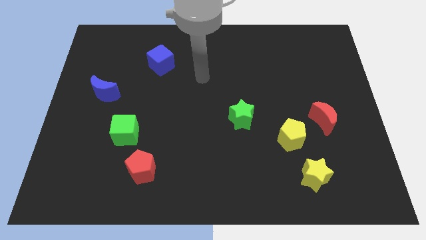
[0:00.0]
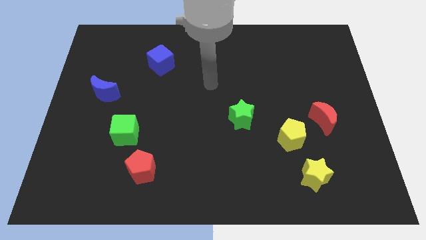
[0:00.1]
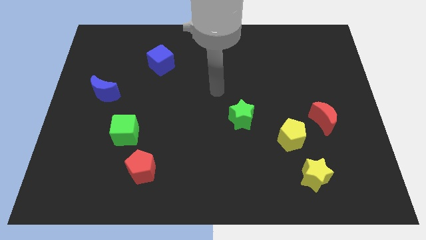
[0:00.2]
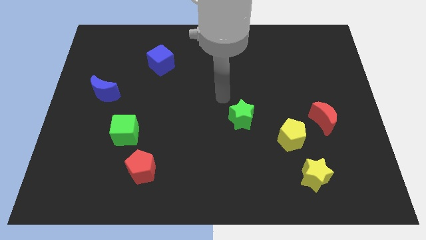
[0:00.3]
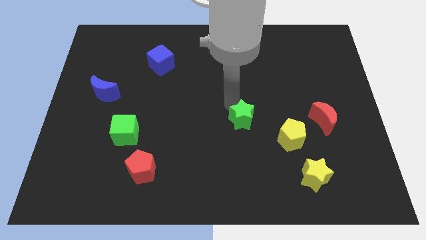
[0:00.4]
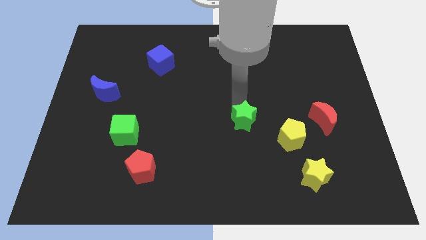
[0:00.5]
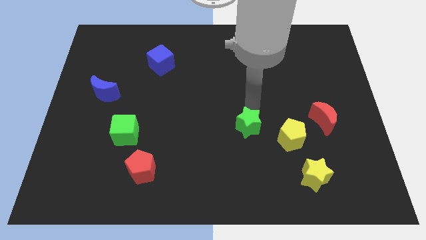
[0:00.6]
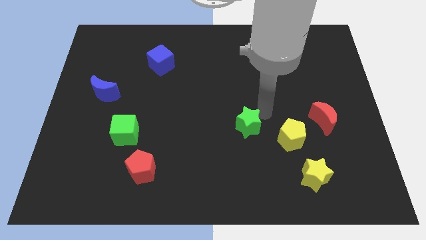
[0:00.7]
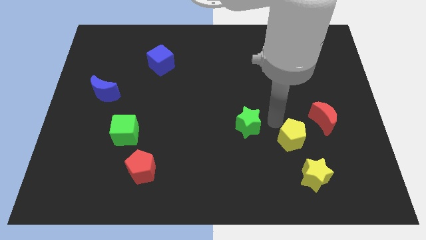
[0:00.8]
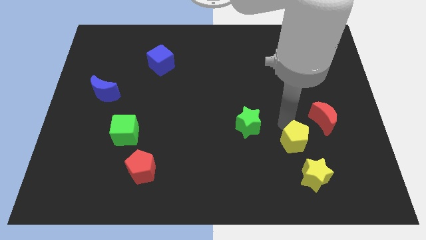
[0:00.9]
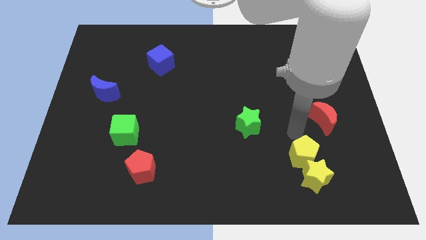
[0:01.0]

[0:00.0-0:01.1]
move the red moon away from the yellow pentagon

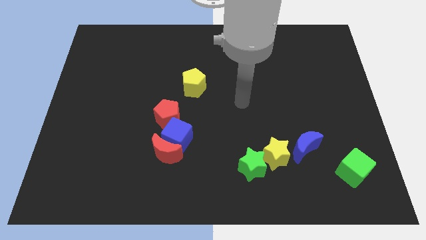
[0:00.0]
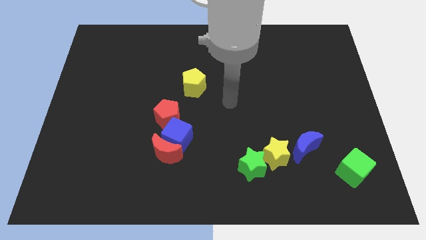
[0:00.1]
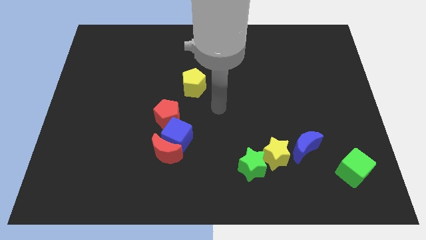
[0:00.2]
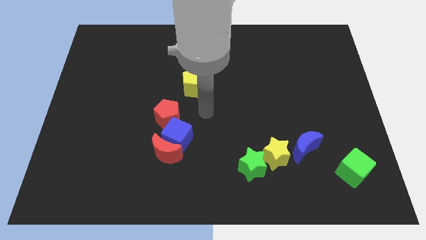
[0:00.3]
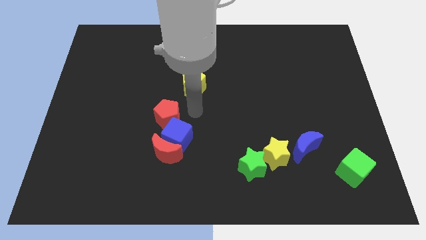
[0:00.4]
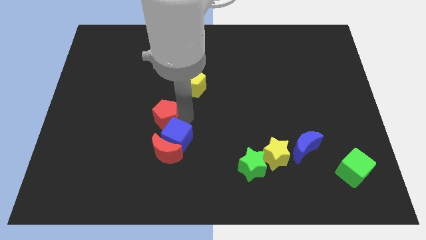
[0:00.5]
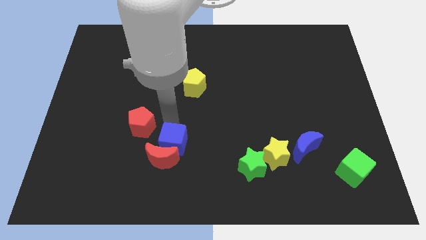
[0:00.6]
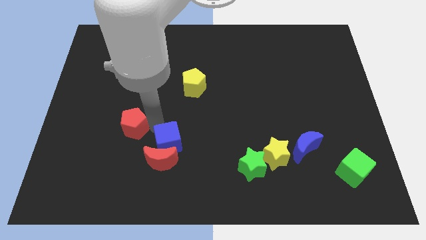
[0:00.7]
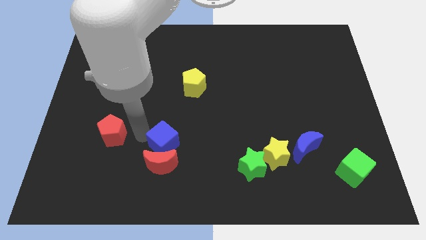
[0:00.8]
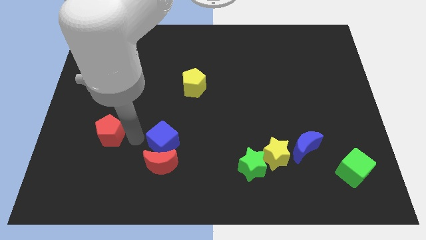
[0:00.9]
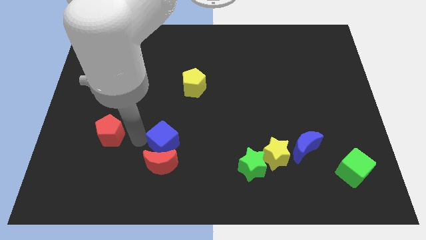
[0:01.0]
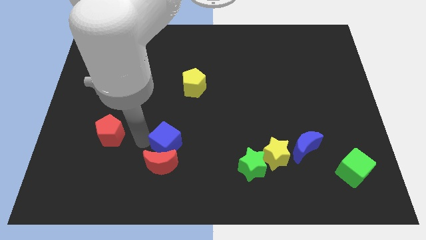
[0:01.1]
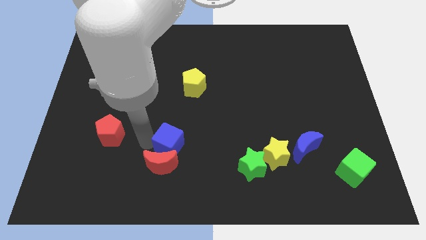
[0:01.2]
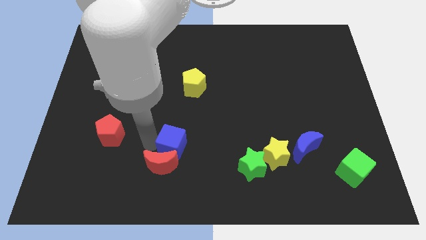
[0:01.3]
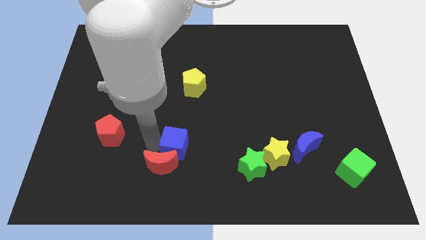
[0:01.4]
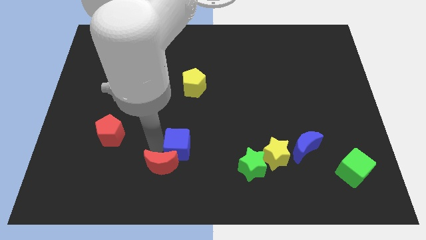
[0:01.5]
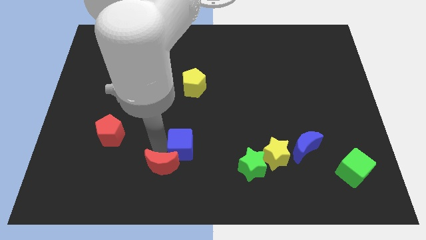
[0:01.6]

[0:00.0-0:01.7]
separate the blue cube from the red moon and red pentagon

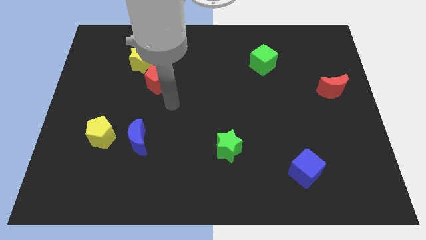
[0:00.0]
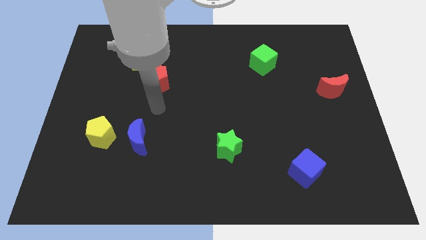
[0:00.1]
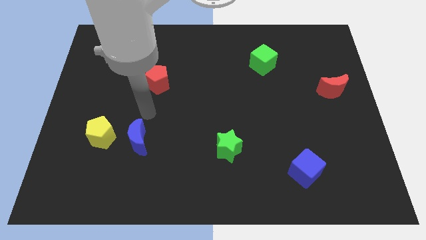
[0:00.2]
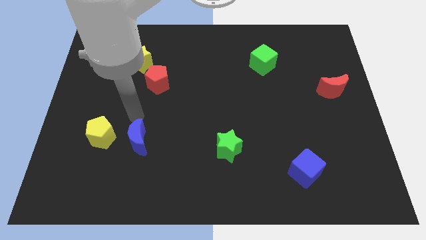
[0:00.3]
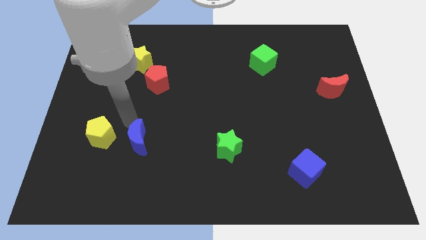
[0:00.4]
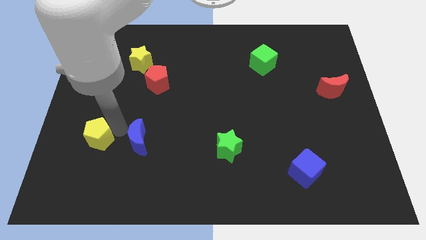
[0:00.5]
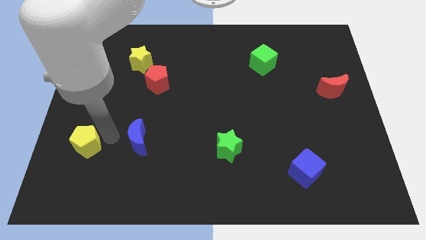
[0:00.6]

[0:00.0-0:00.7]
pull the blue moon apart from the yellow pentagon

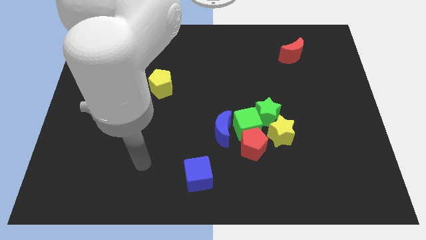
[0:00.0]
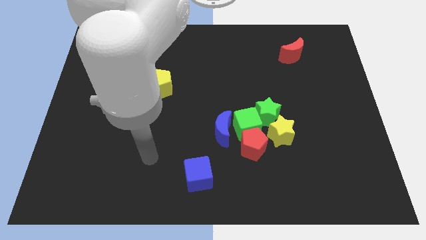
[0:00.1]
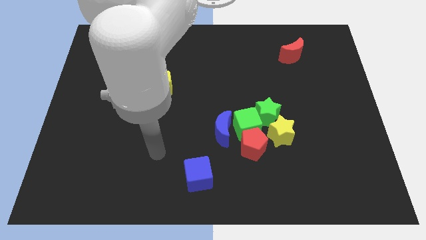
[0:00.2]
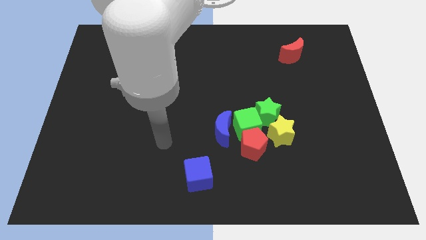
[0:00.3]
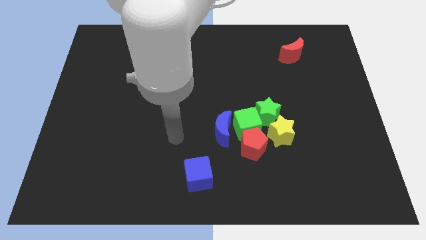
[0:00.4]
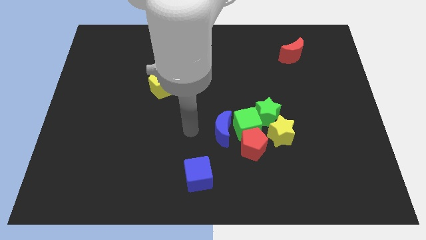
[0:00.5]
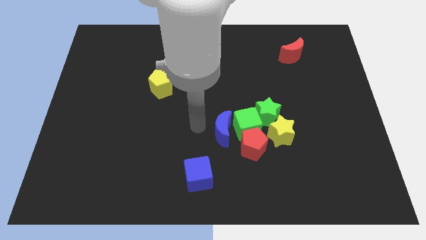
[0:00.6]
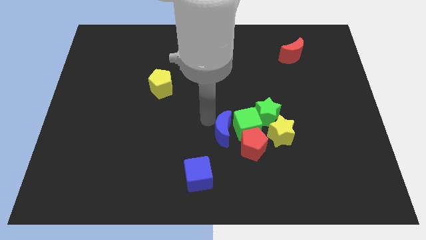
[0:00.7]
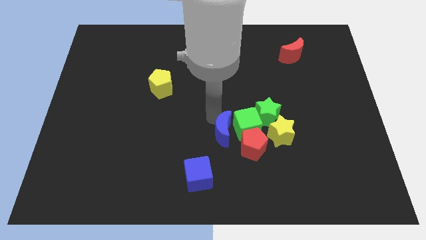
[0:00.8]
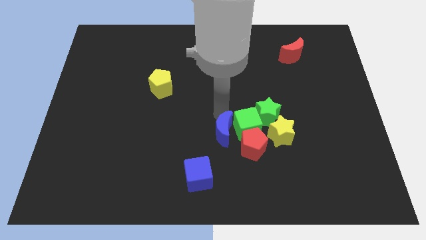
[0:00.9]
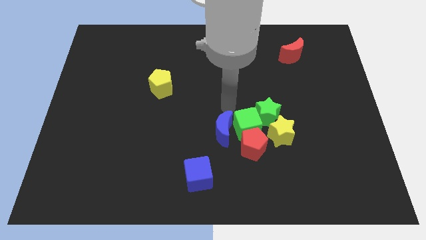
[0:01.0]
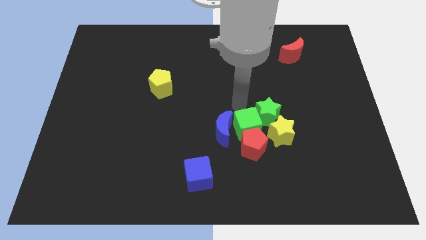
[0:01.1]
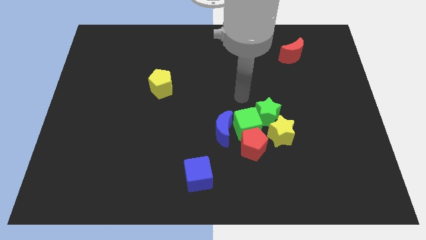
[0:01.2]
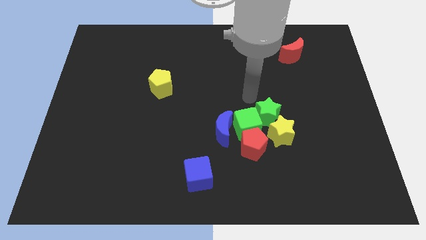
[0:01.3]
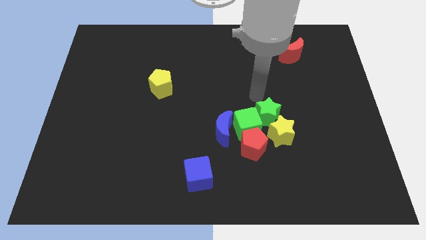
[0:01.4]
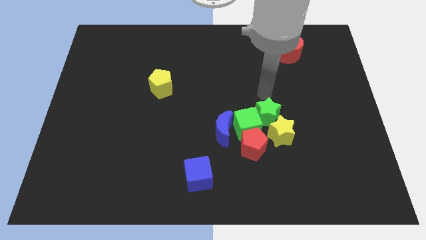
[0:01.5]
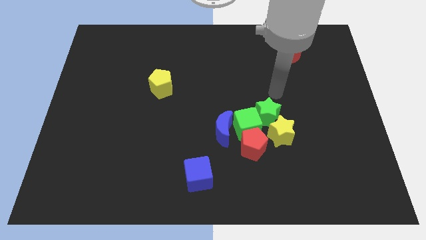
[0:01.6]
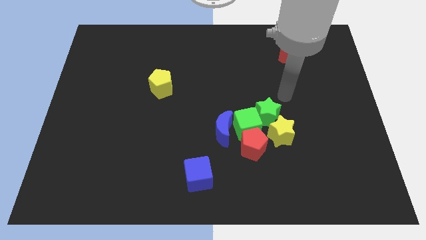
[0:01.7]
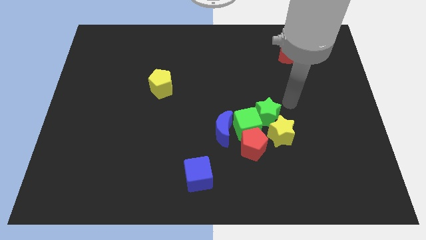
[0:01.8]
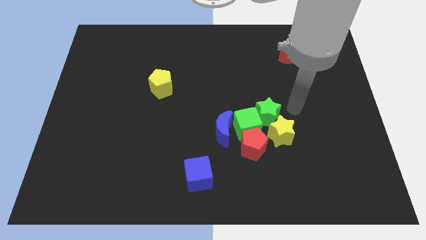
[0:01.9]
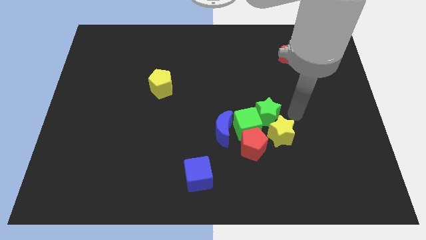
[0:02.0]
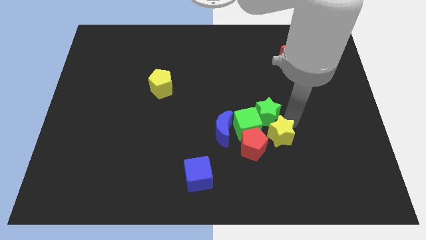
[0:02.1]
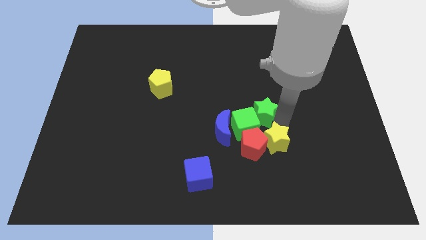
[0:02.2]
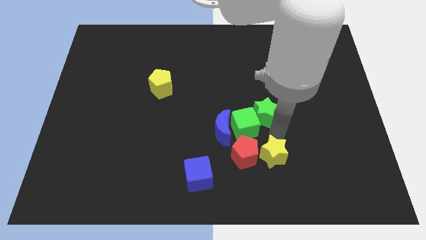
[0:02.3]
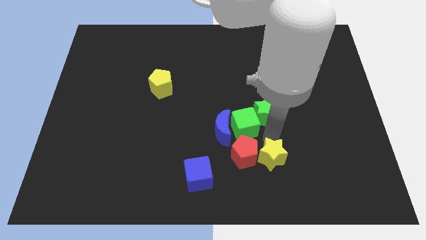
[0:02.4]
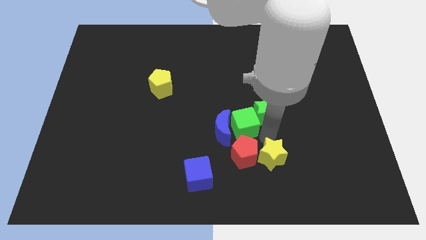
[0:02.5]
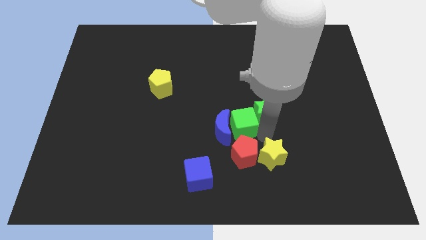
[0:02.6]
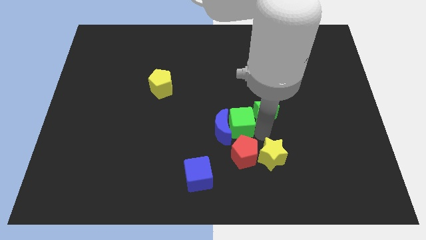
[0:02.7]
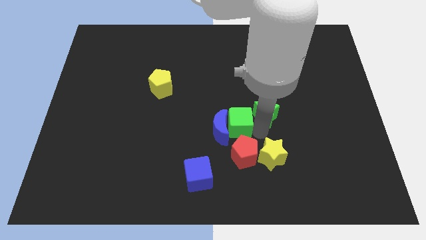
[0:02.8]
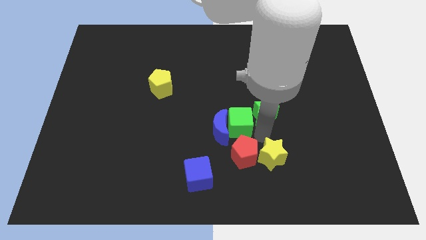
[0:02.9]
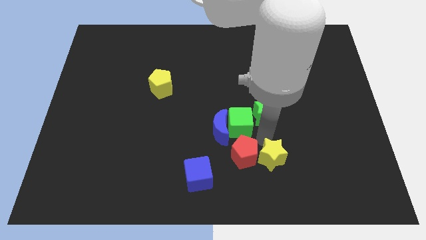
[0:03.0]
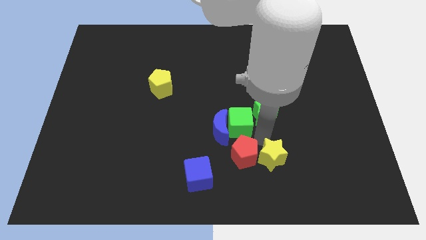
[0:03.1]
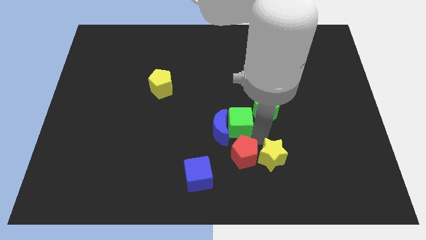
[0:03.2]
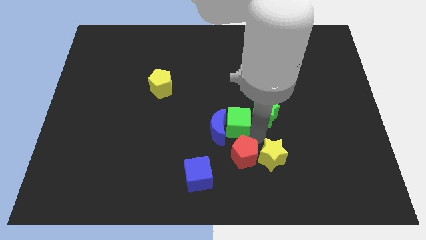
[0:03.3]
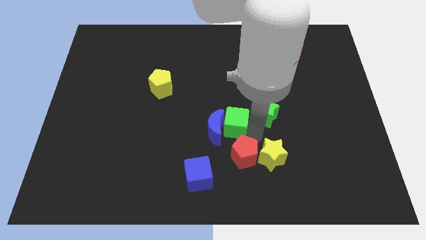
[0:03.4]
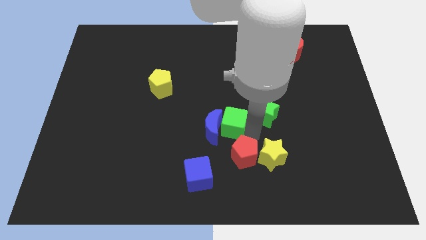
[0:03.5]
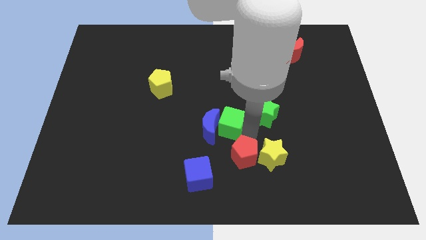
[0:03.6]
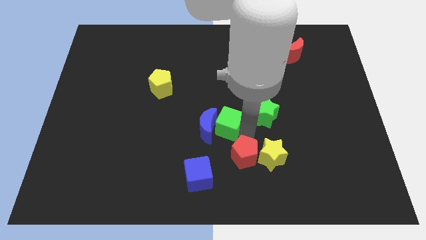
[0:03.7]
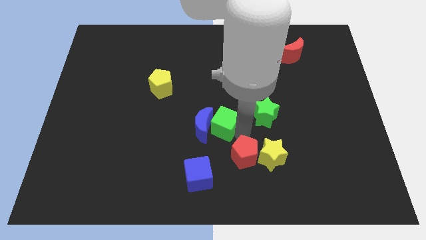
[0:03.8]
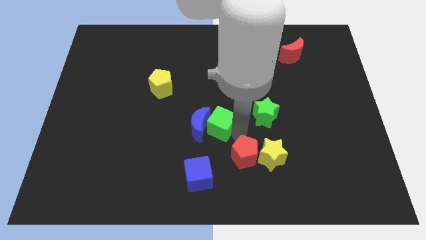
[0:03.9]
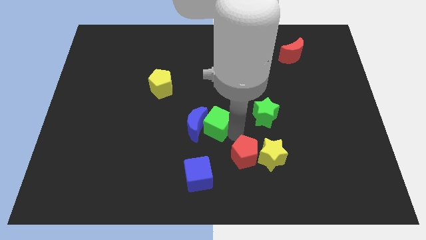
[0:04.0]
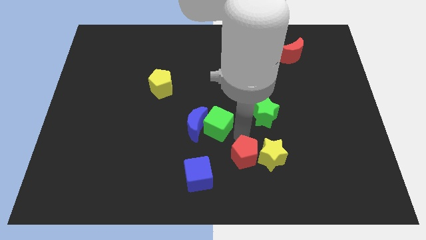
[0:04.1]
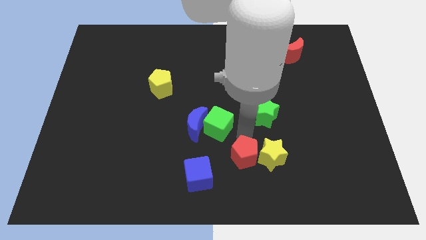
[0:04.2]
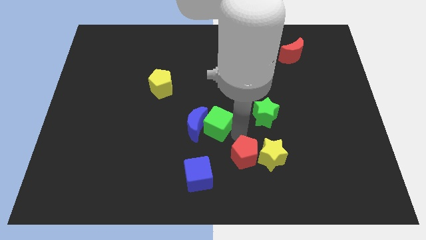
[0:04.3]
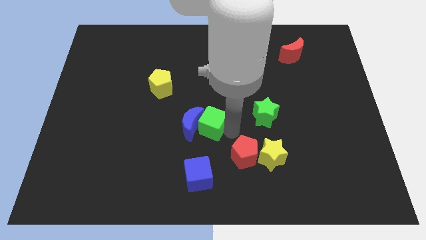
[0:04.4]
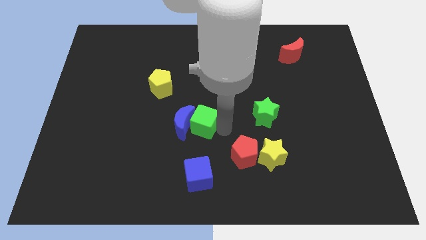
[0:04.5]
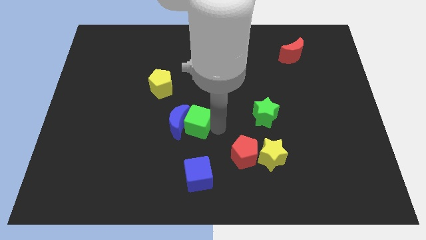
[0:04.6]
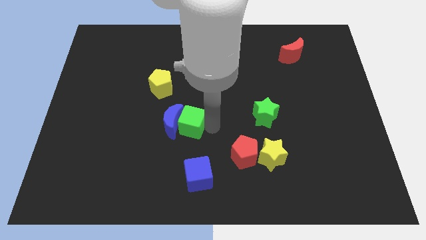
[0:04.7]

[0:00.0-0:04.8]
move the green cube away from the group

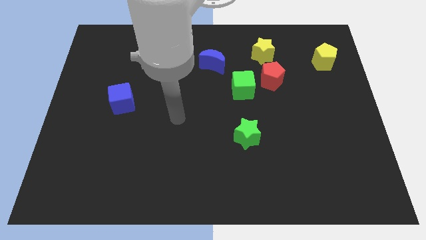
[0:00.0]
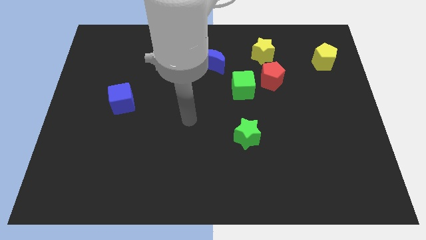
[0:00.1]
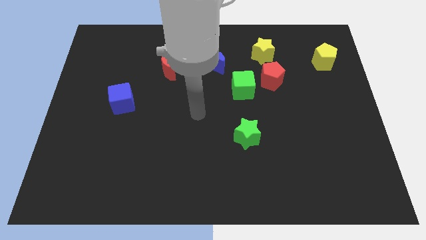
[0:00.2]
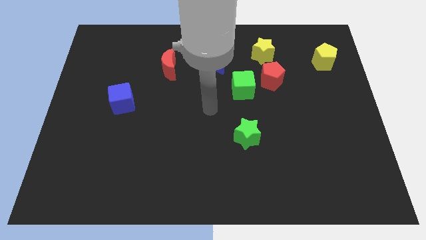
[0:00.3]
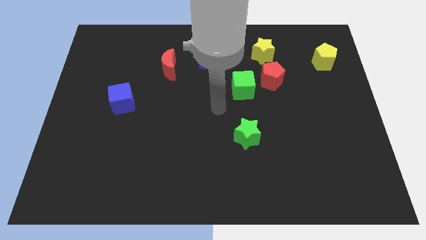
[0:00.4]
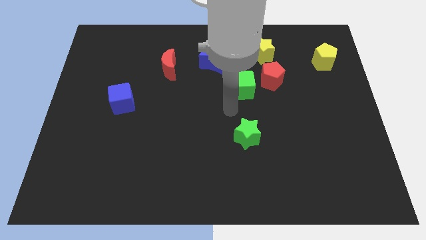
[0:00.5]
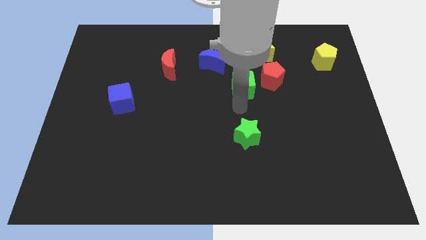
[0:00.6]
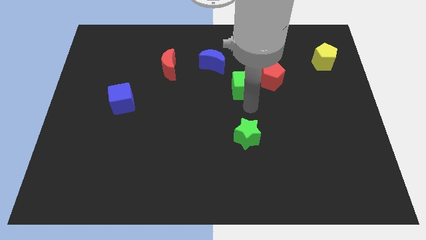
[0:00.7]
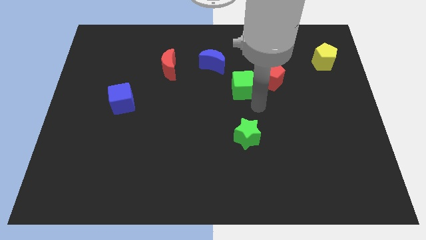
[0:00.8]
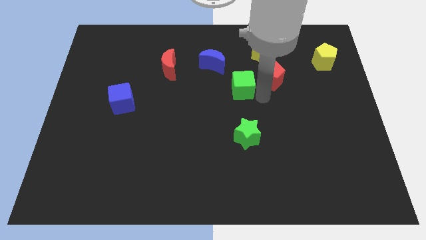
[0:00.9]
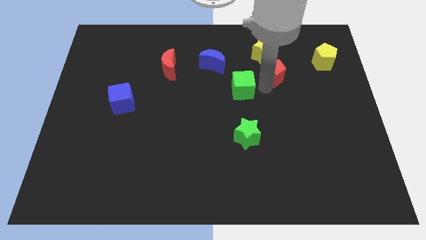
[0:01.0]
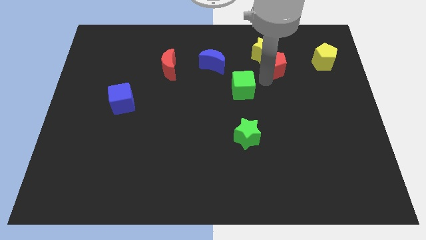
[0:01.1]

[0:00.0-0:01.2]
move the green cube away from the red pentagon

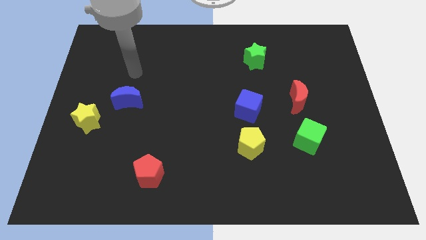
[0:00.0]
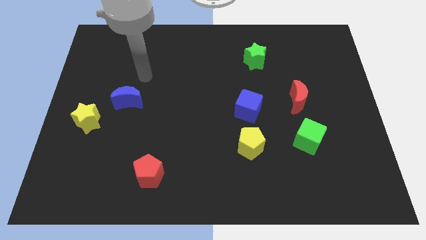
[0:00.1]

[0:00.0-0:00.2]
move the blue cube away from the yellow pentagon
